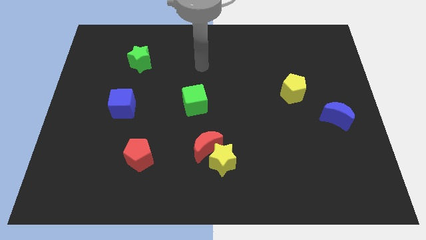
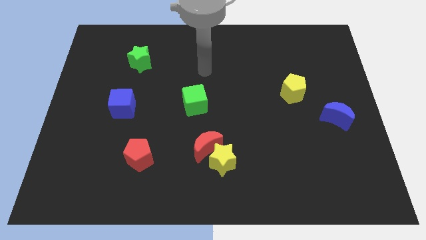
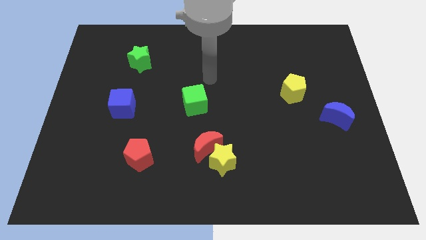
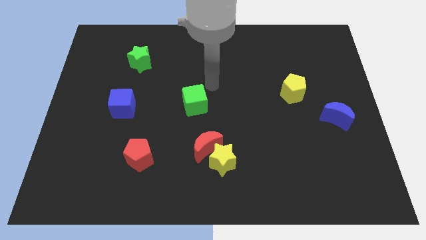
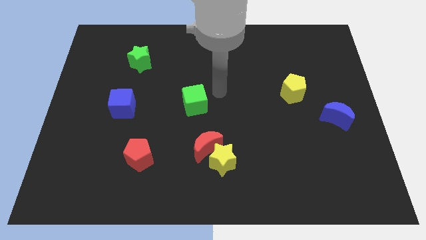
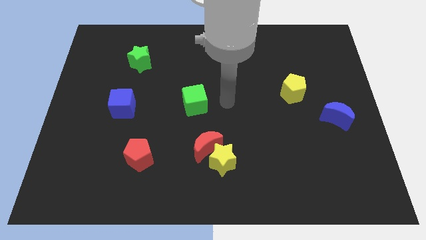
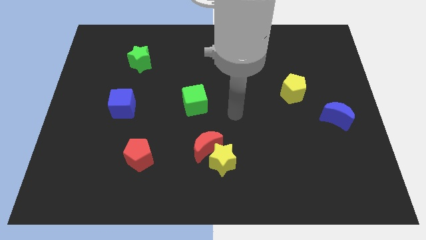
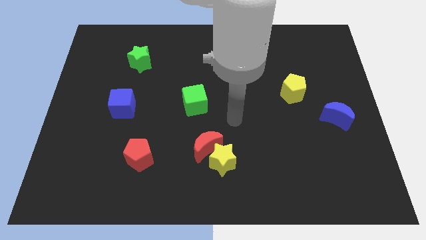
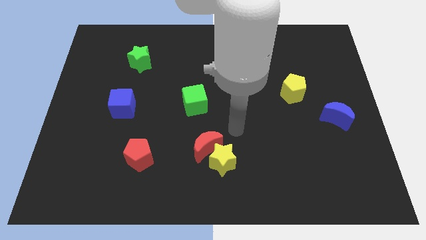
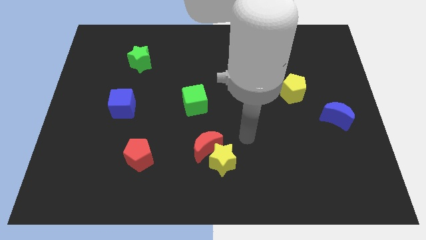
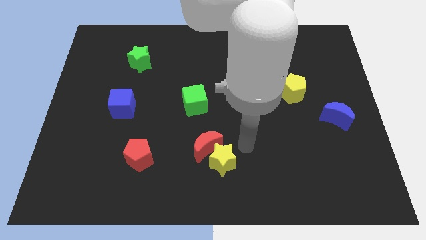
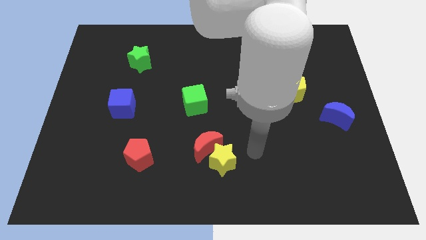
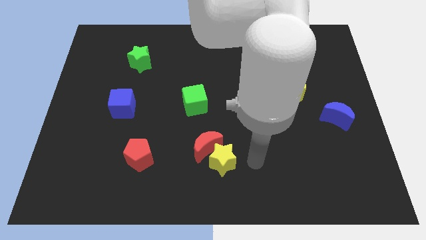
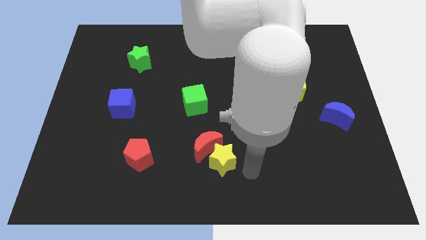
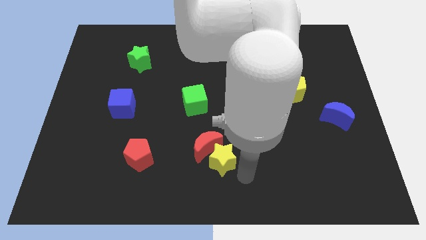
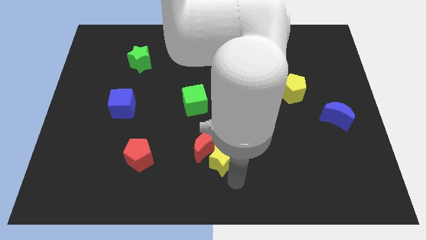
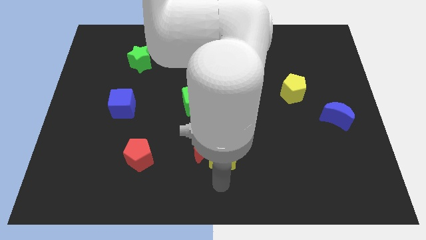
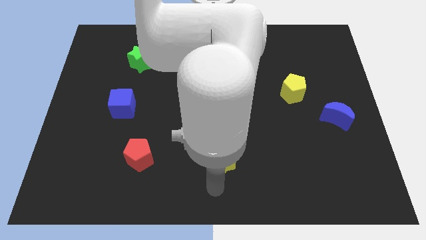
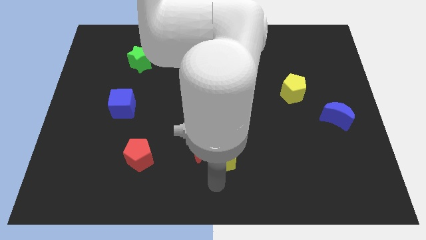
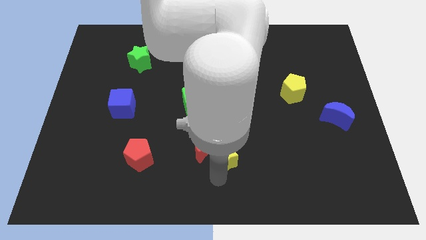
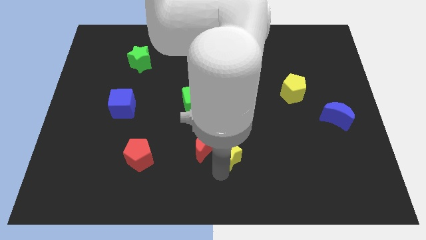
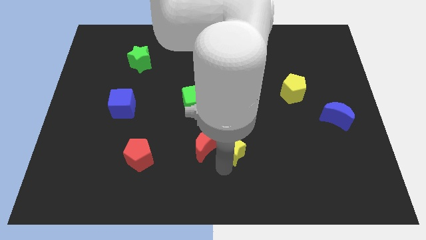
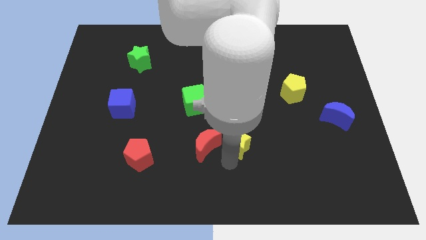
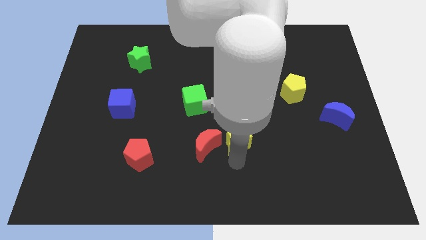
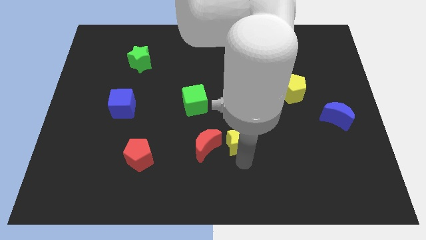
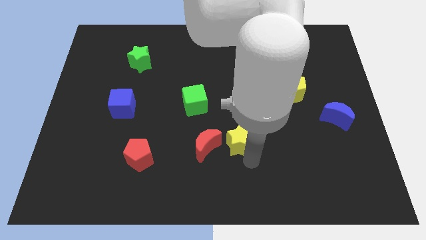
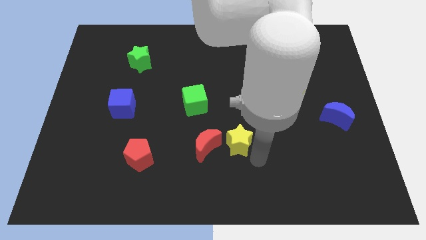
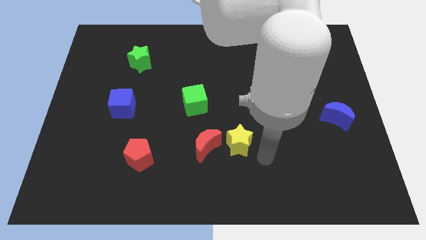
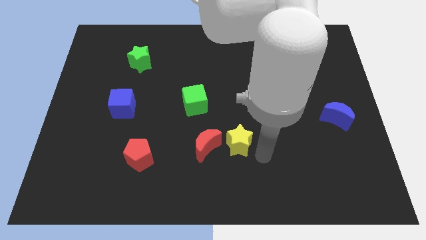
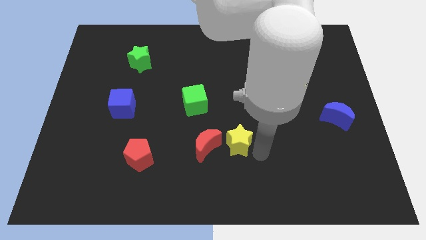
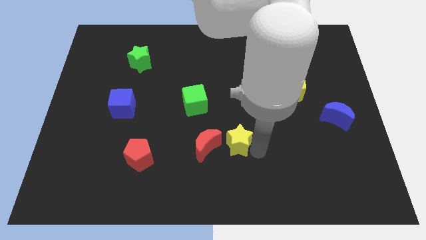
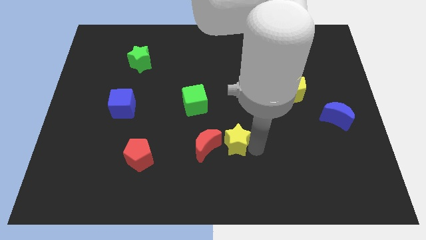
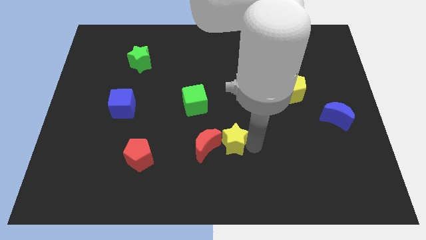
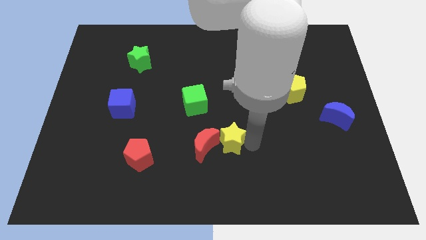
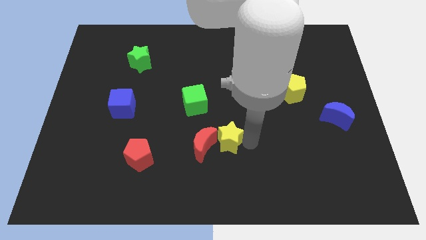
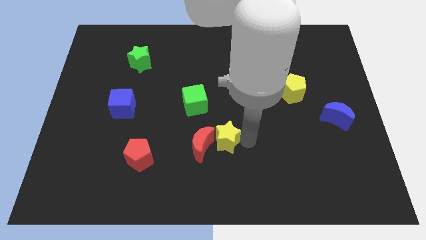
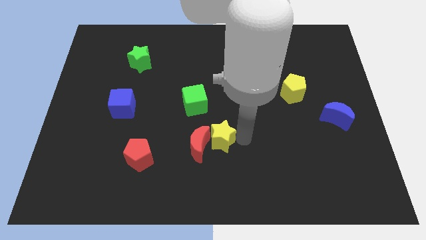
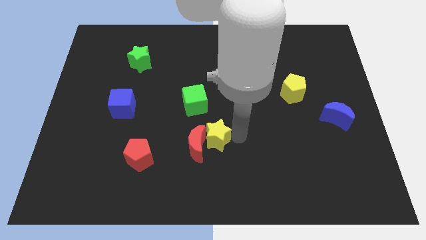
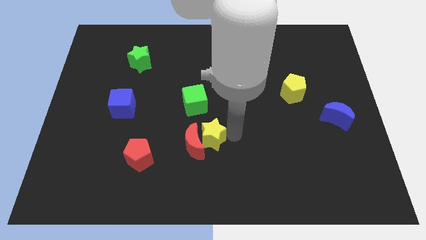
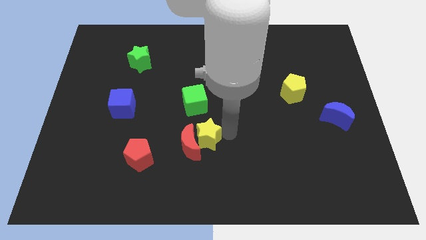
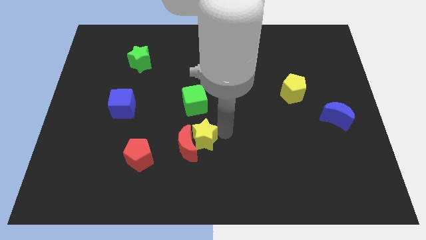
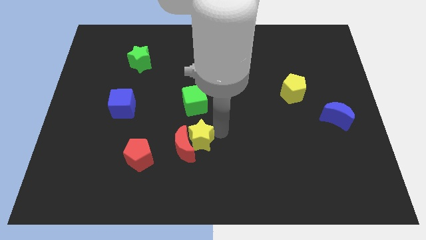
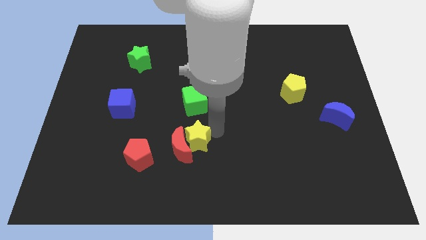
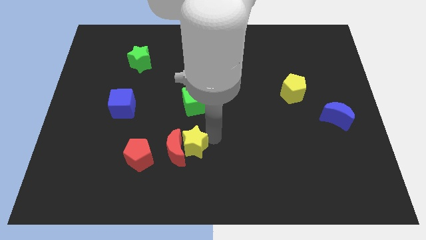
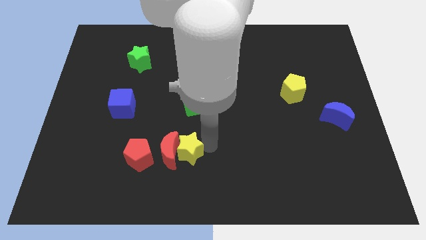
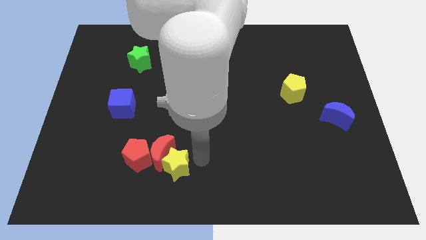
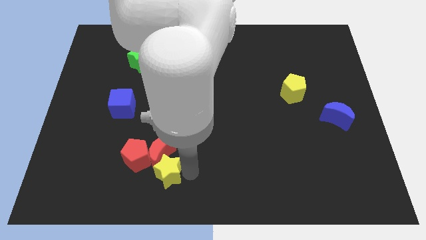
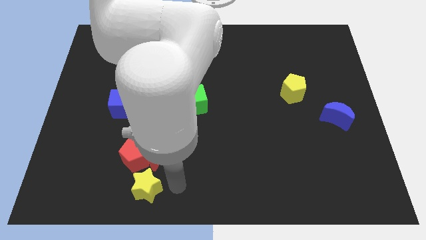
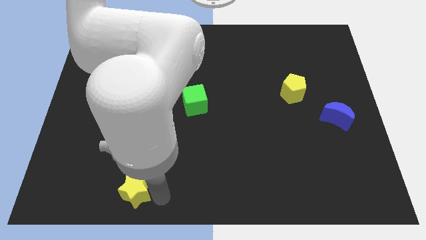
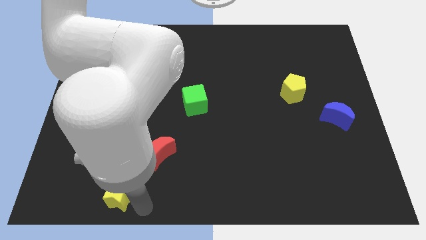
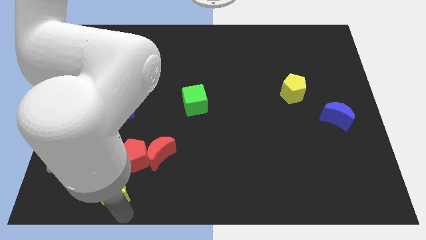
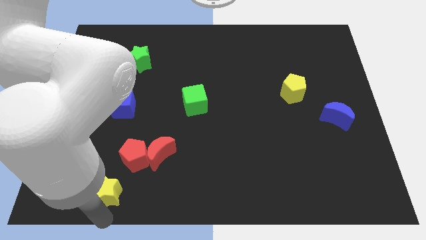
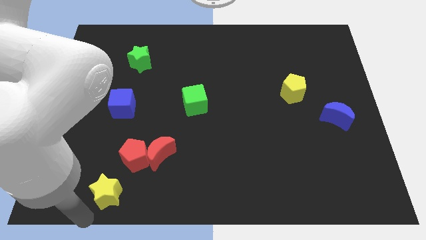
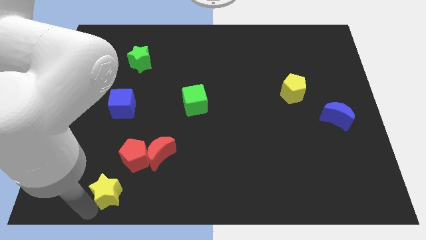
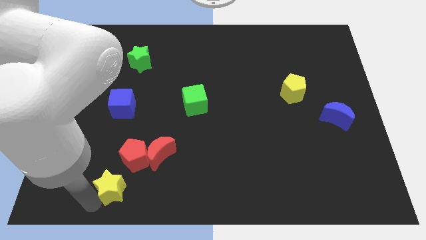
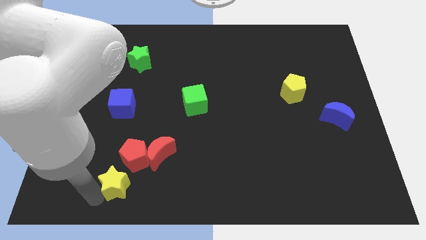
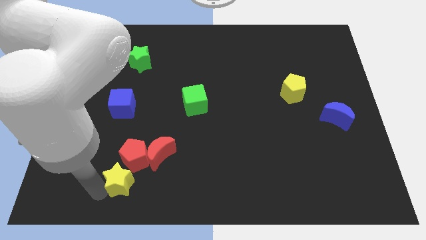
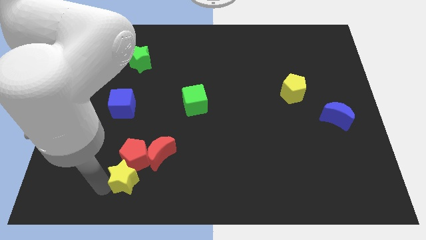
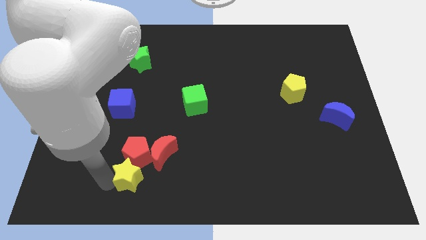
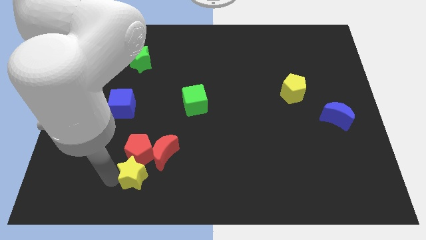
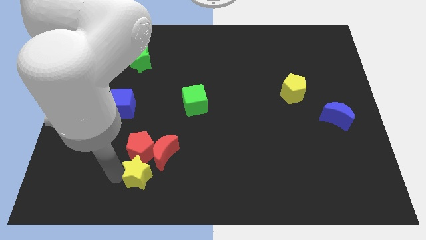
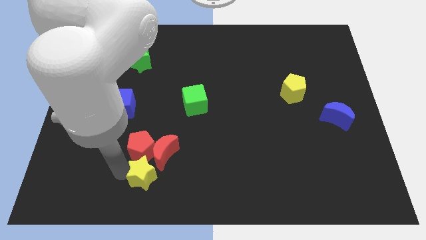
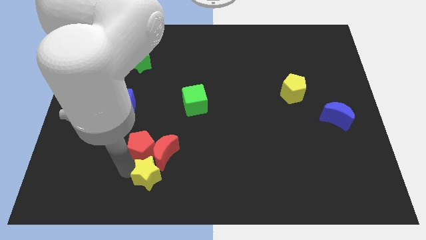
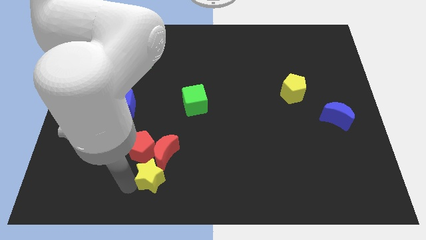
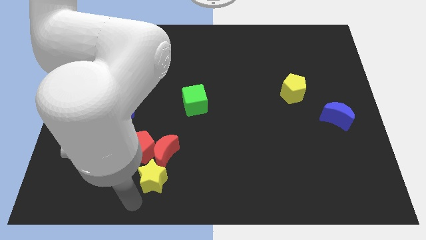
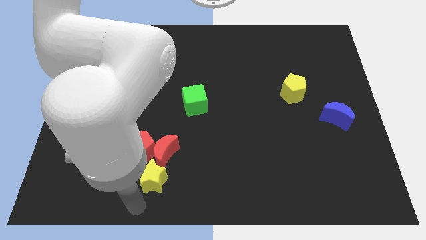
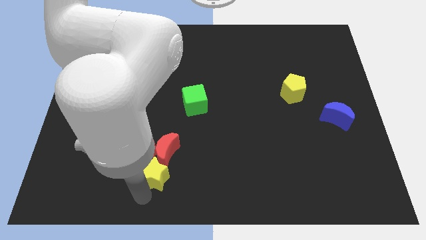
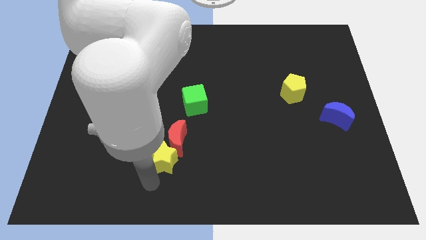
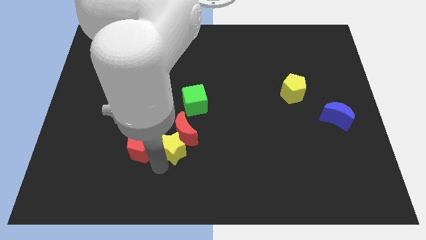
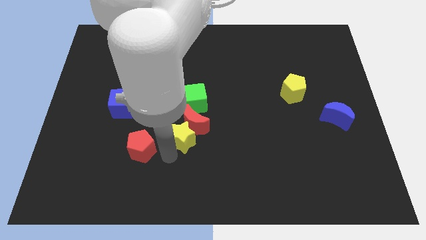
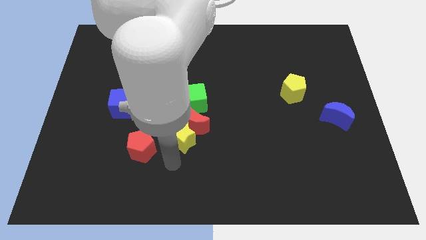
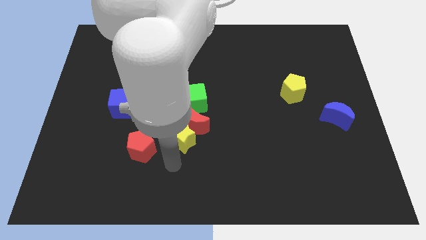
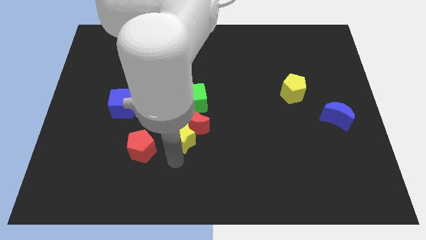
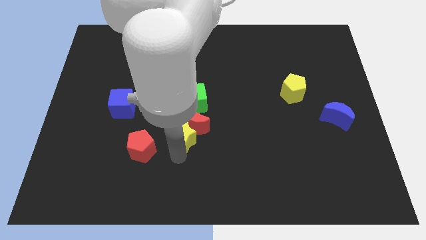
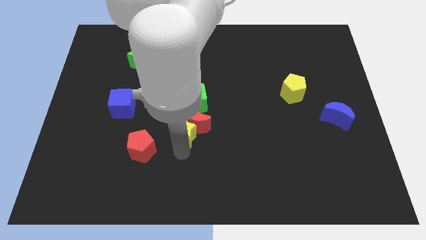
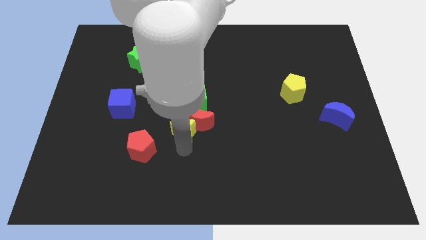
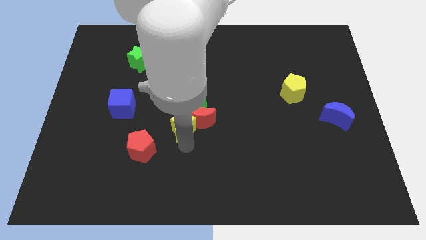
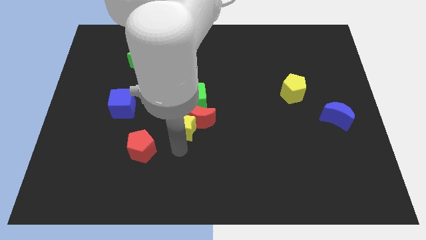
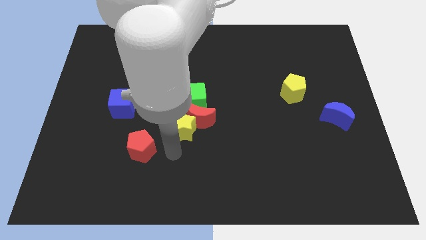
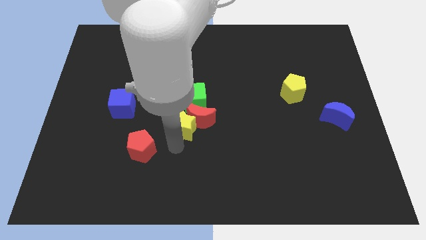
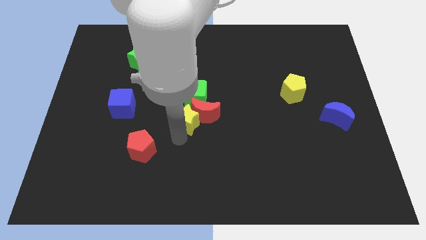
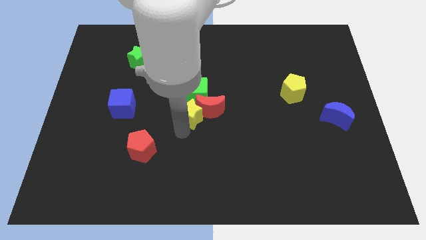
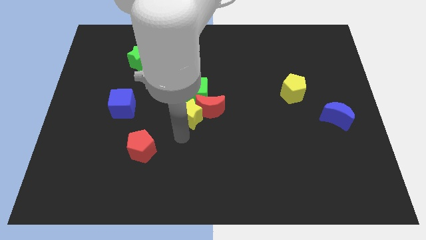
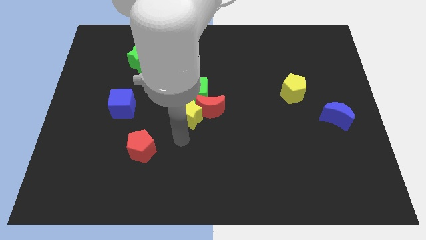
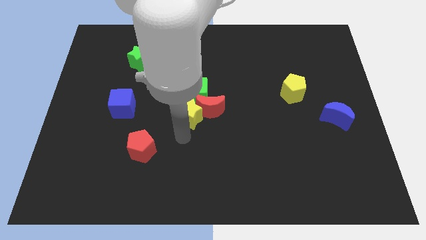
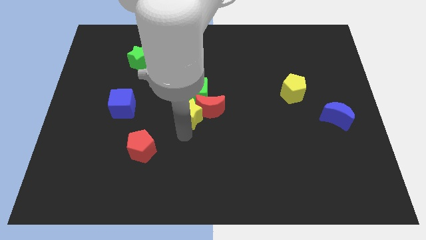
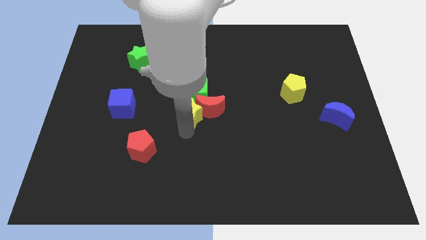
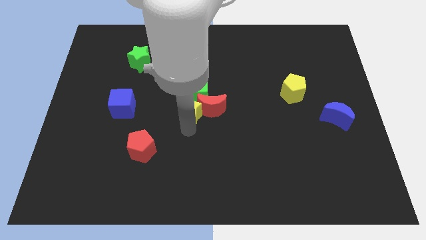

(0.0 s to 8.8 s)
push the yellow star towards the green cube
